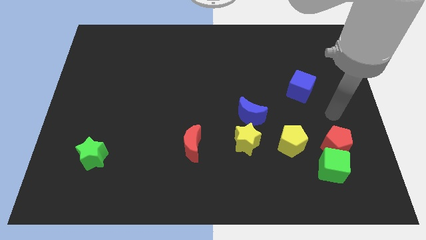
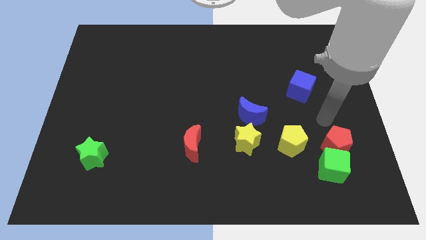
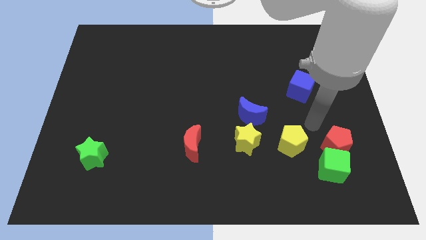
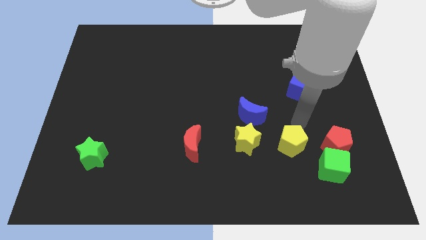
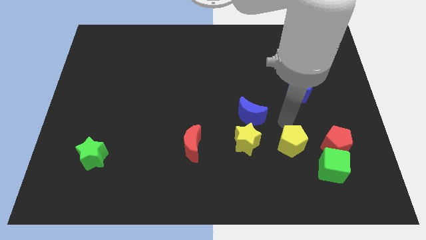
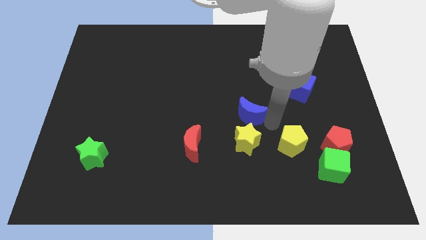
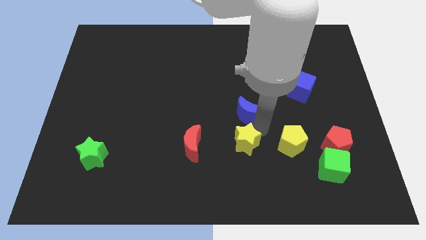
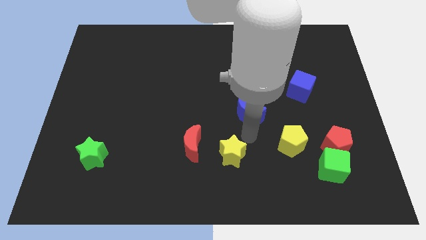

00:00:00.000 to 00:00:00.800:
separate the blue moon from the yellow star

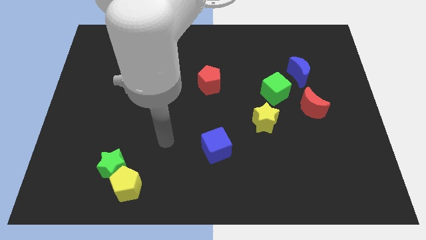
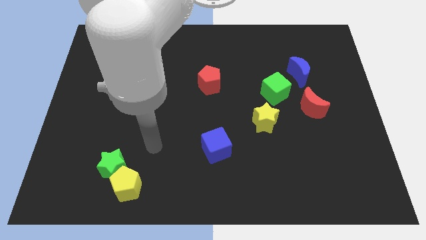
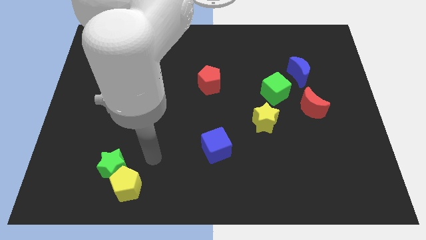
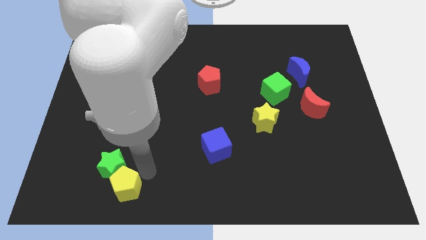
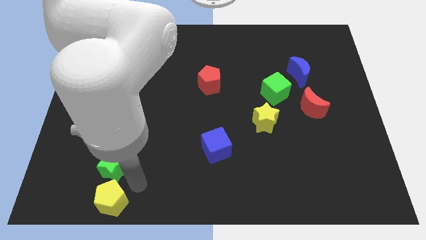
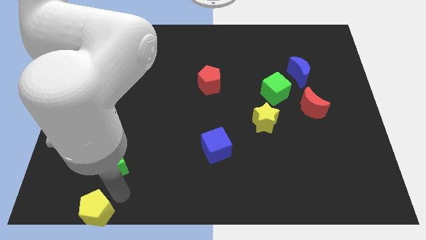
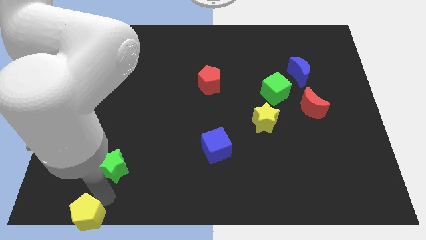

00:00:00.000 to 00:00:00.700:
separate the green star from the yellow pentagon

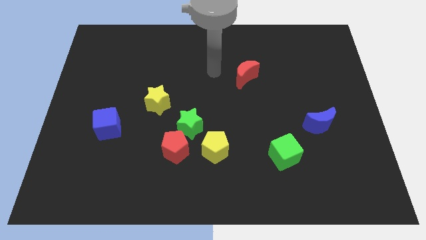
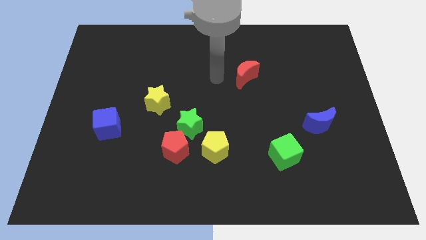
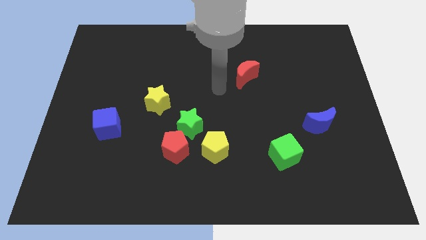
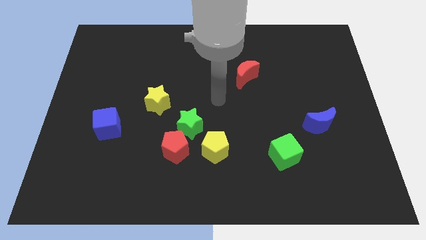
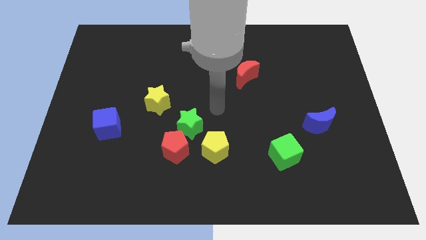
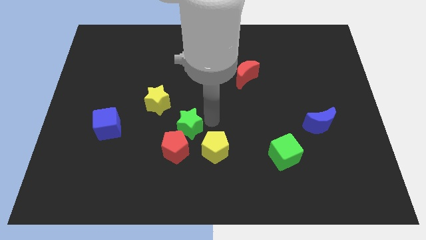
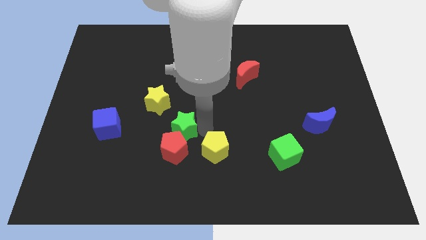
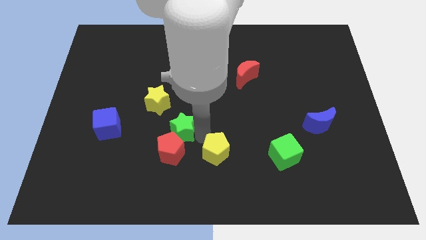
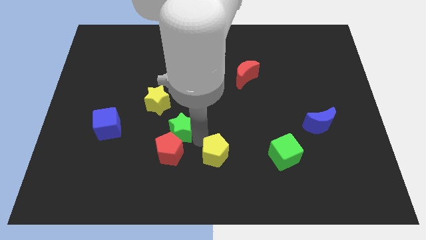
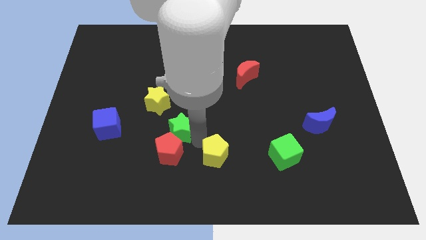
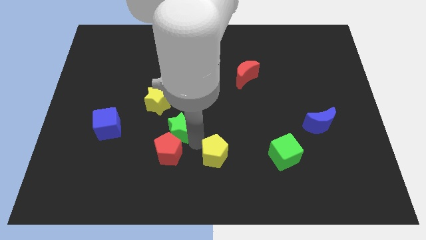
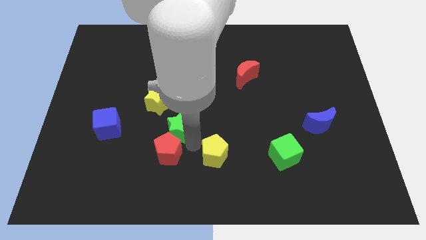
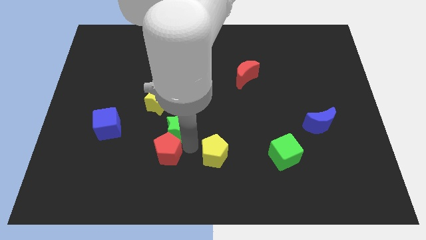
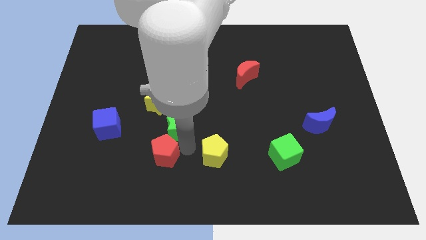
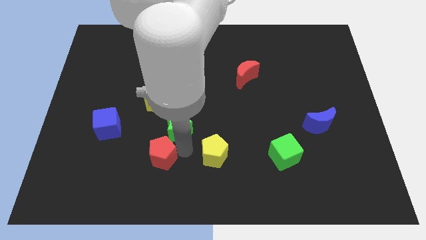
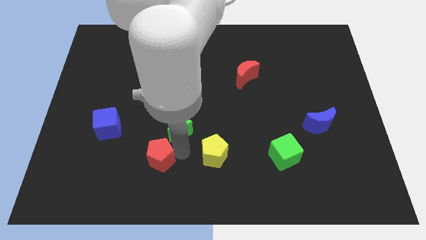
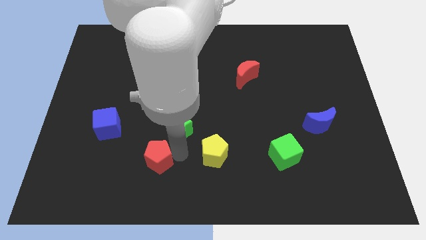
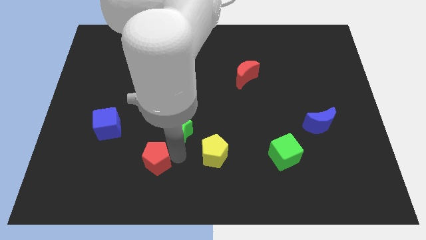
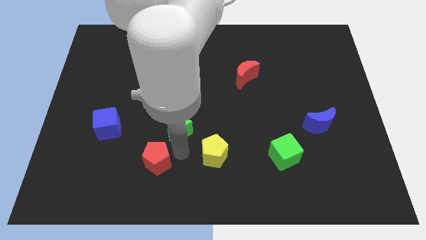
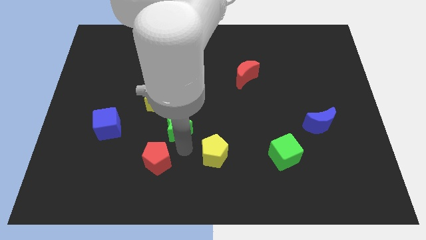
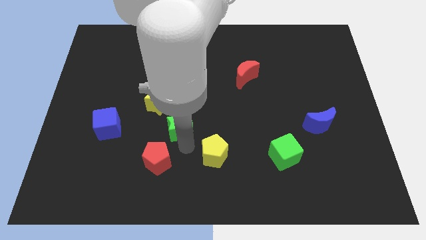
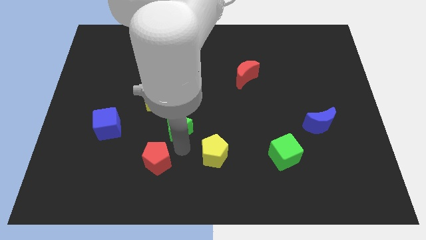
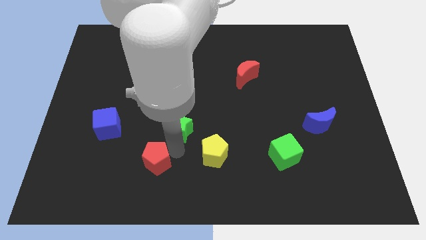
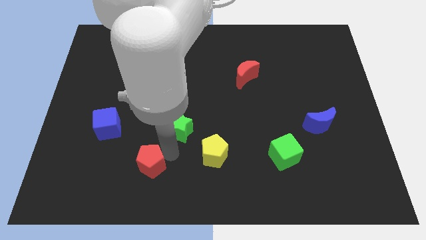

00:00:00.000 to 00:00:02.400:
pull the red pentagon apart from the green star and yellow pentagon

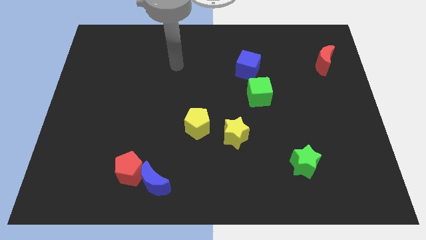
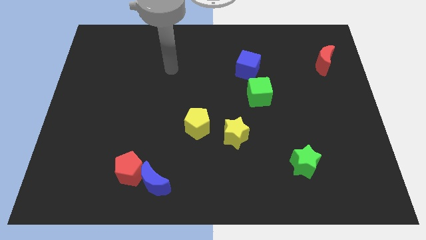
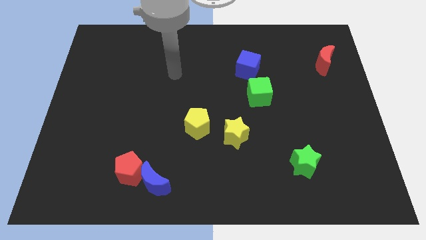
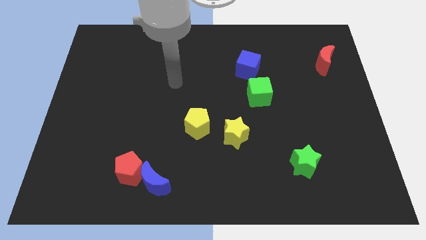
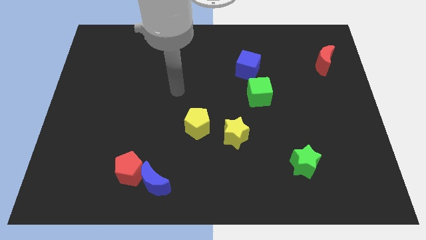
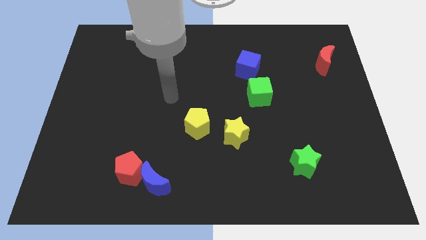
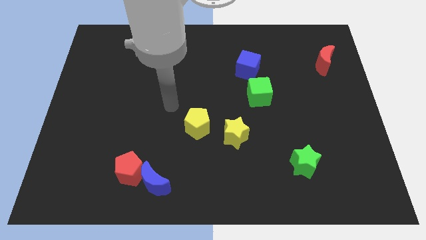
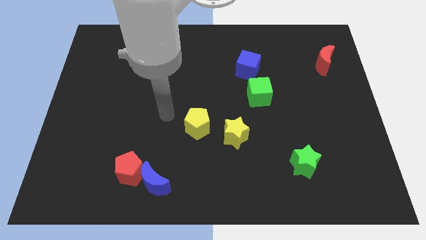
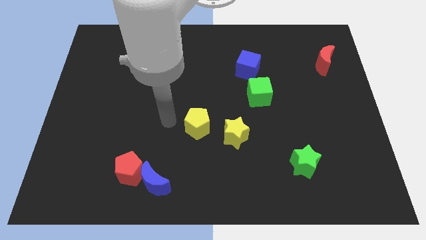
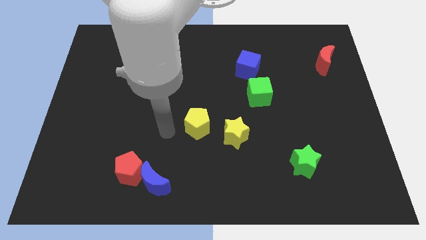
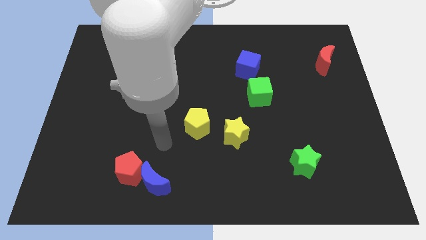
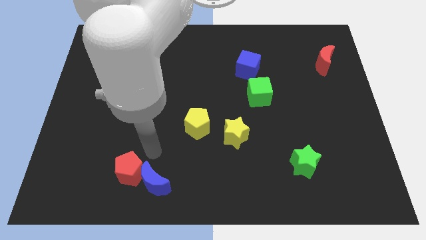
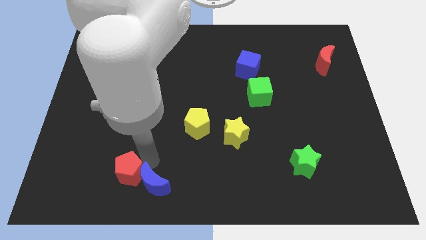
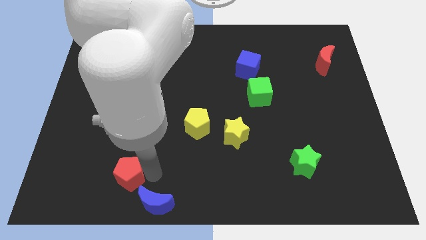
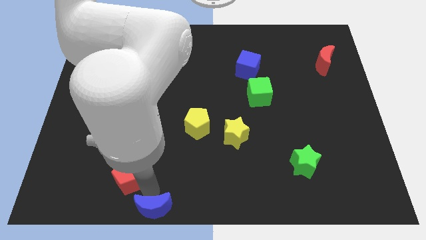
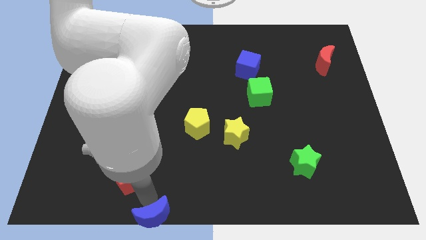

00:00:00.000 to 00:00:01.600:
pull the red pentagon apart from the blue moon

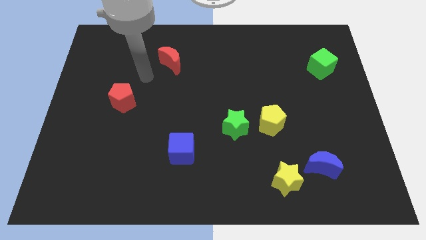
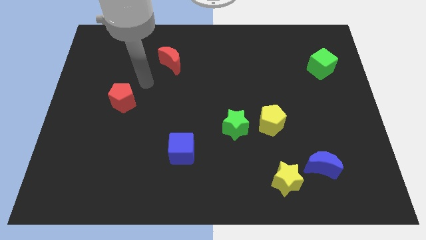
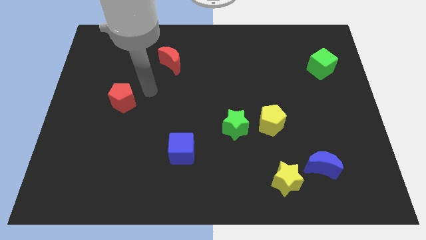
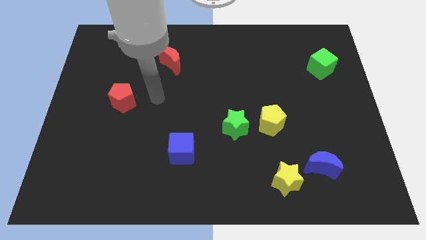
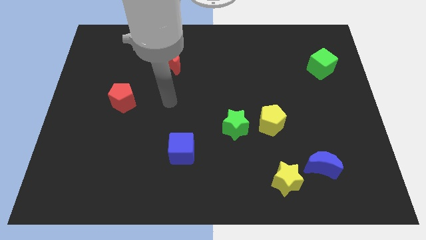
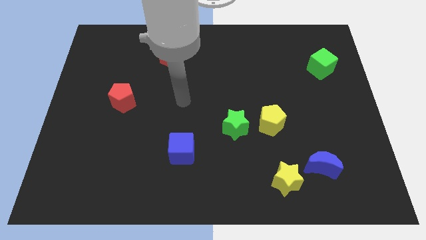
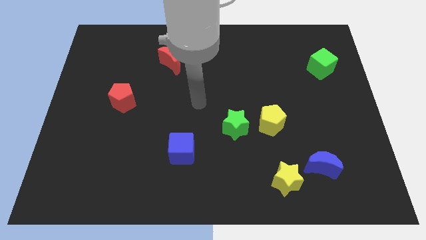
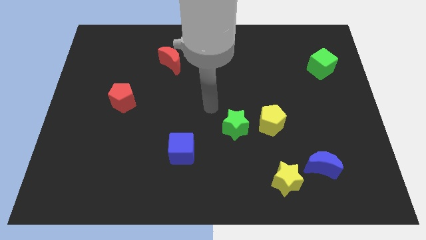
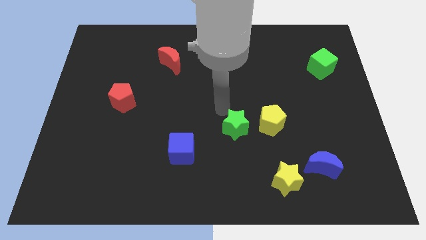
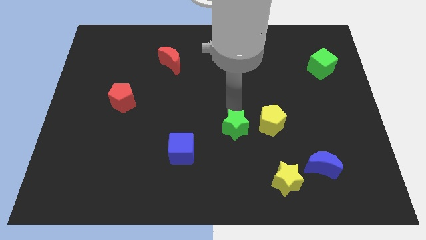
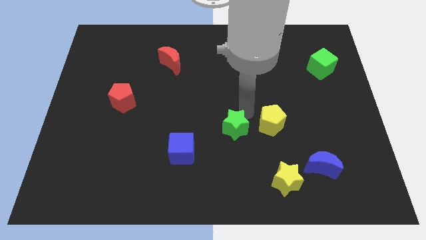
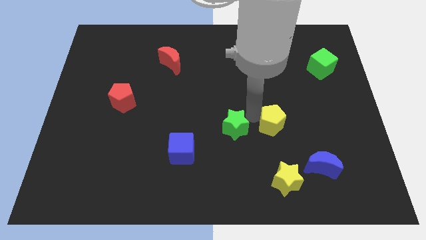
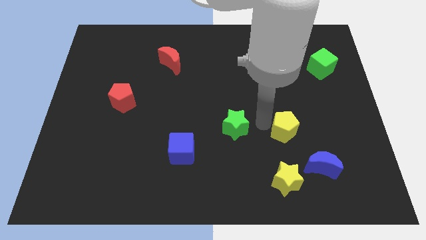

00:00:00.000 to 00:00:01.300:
move the green star away from the yellow pentagon

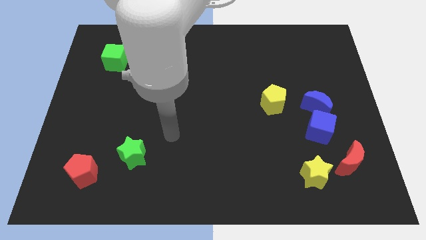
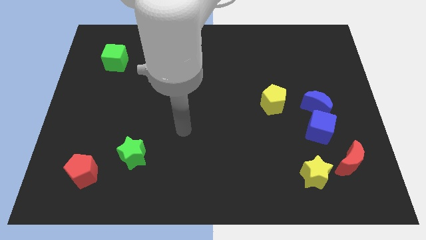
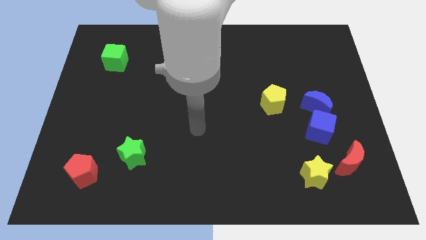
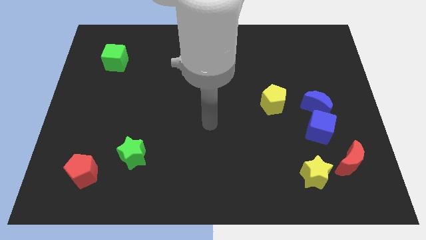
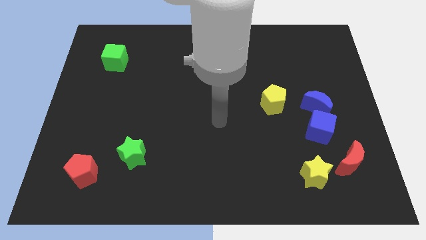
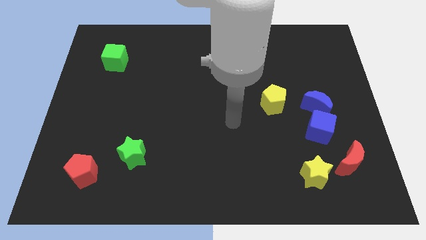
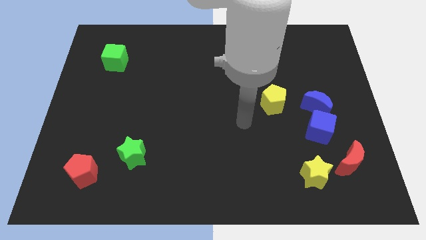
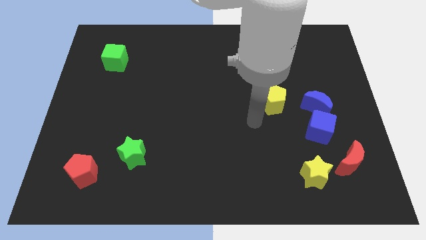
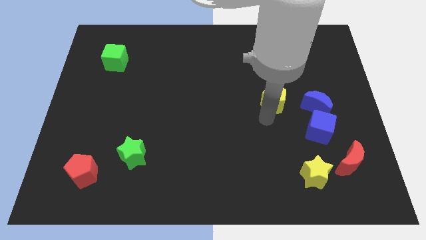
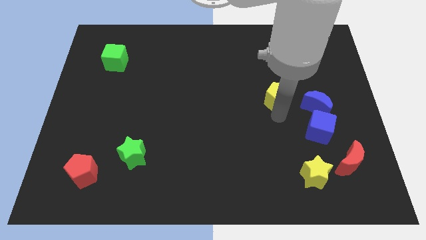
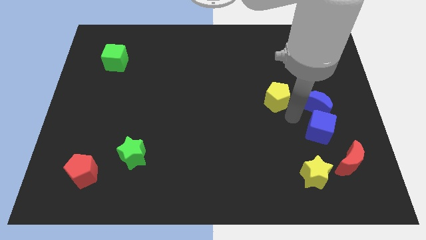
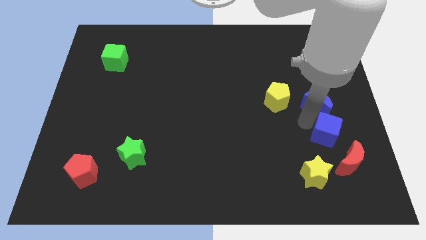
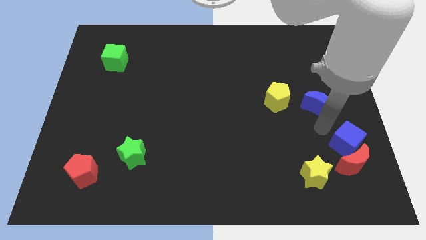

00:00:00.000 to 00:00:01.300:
separate the blue moon from the blue cube

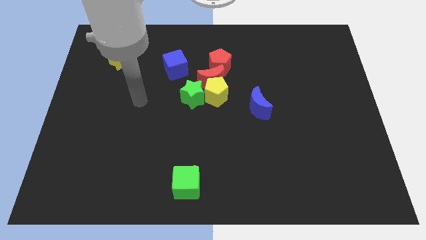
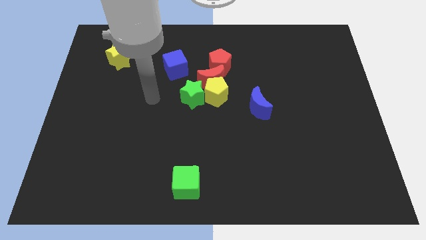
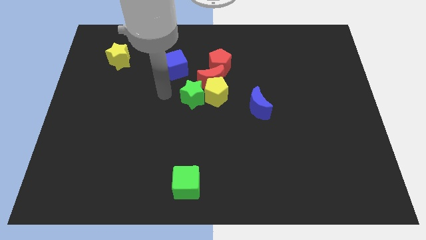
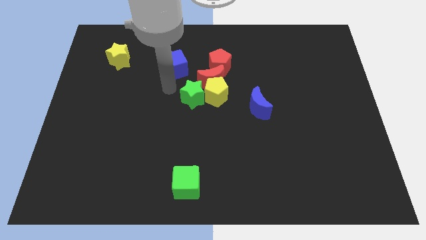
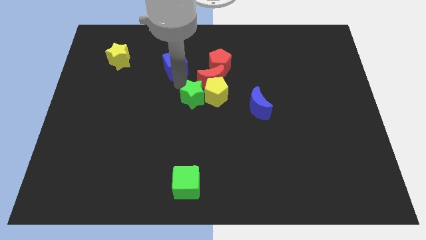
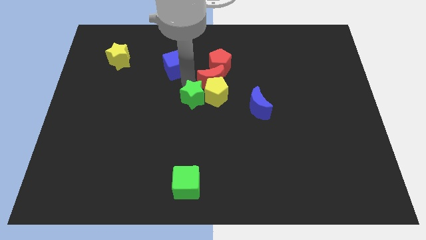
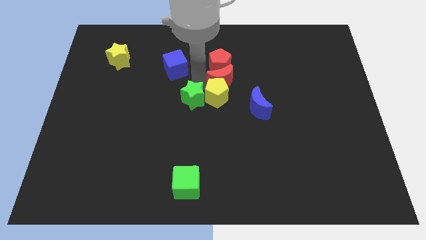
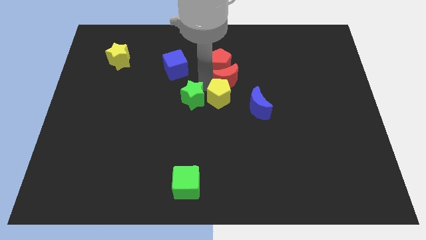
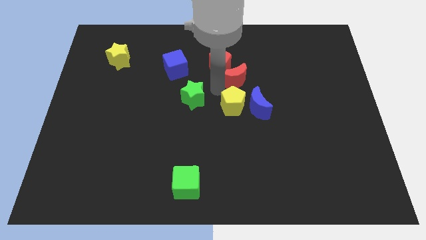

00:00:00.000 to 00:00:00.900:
separate the green star from the yellow pentagon and red moon

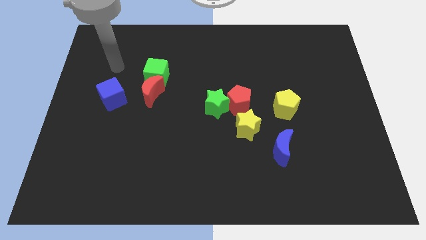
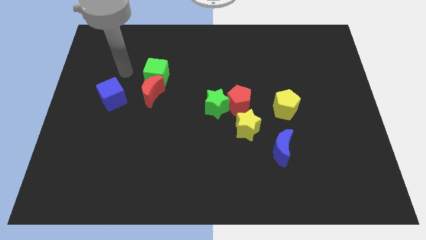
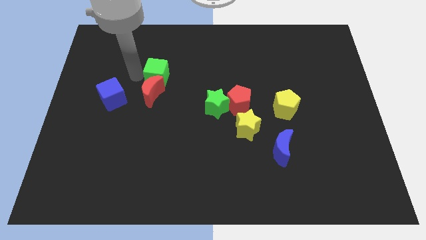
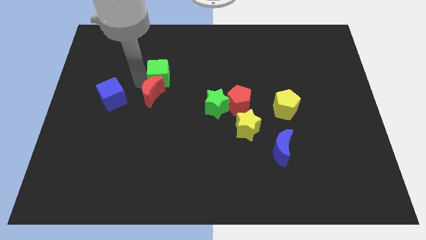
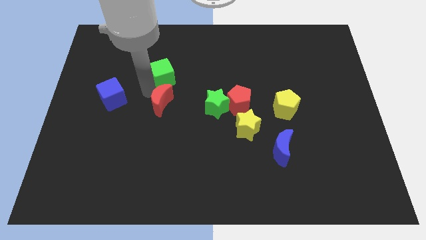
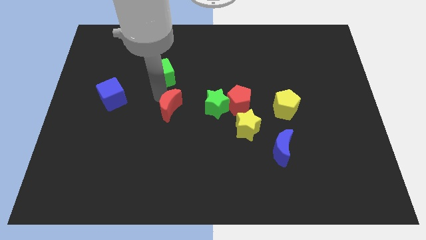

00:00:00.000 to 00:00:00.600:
move the green cube away from the red moon
